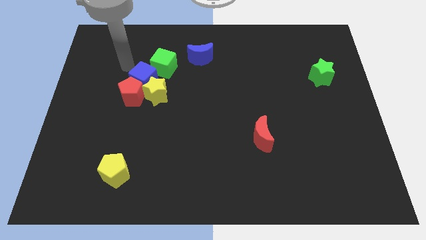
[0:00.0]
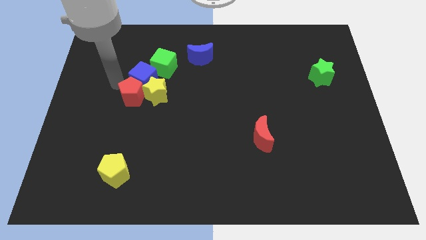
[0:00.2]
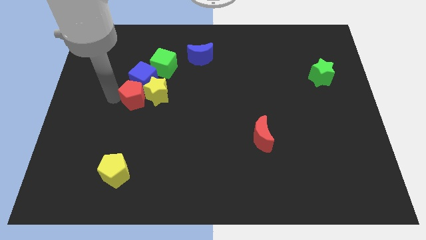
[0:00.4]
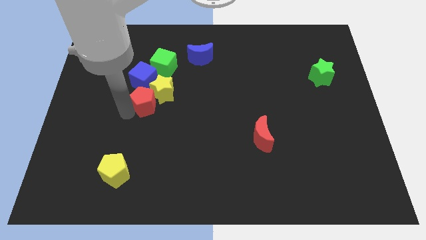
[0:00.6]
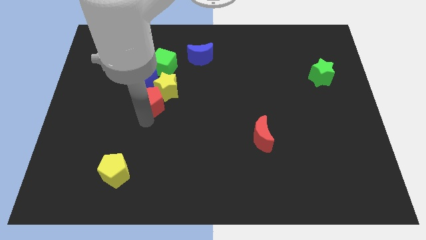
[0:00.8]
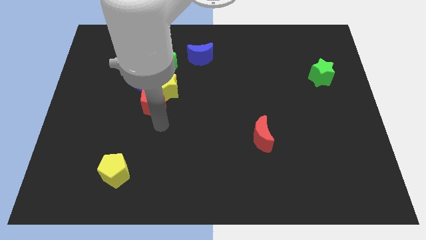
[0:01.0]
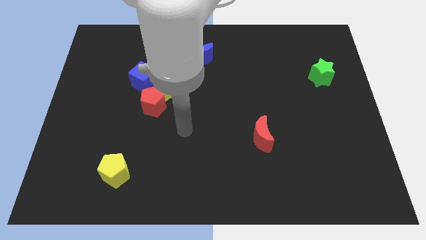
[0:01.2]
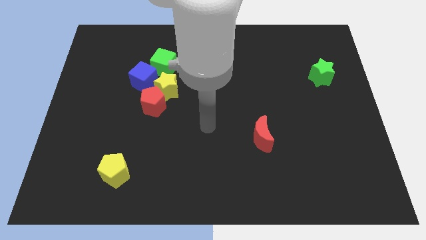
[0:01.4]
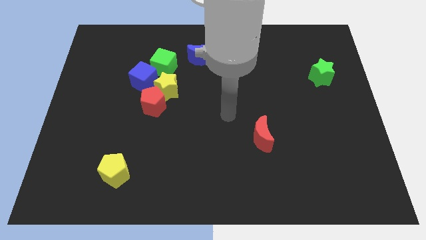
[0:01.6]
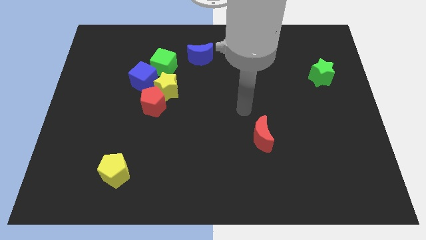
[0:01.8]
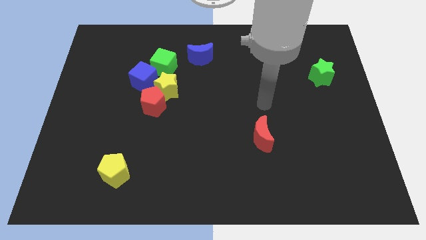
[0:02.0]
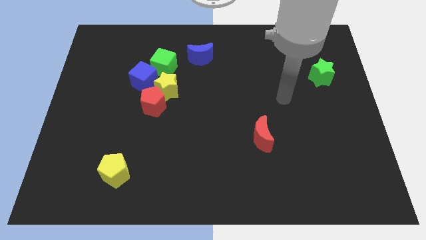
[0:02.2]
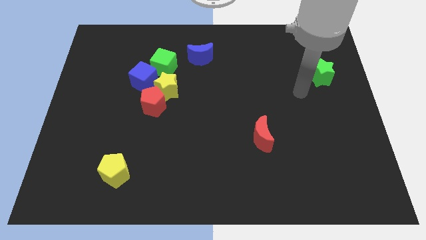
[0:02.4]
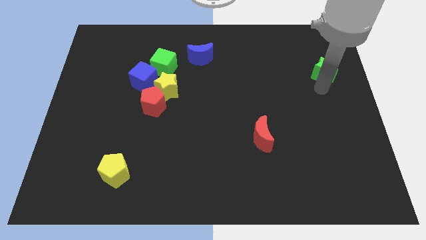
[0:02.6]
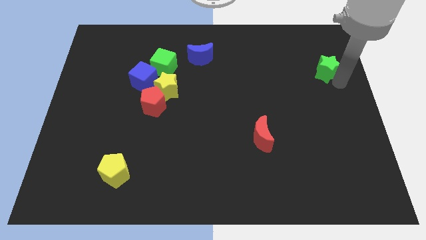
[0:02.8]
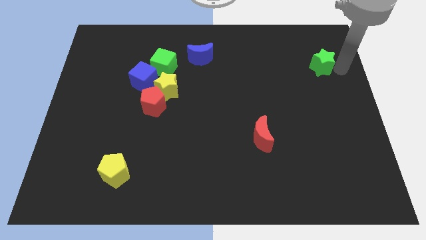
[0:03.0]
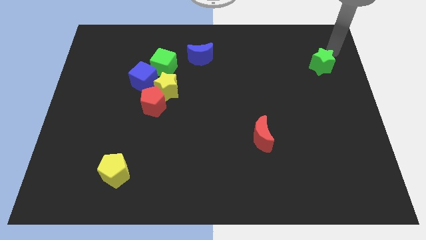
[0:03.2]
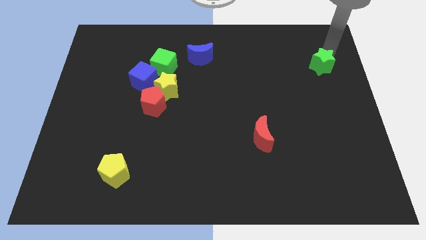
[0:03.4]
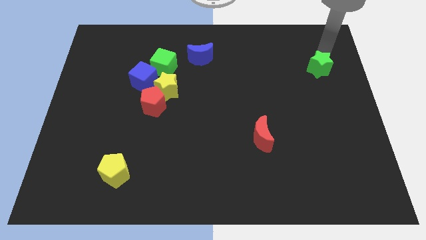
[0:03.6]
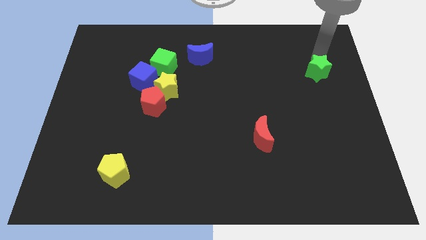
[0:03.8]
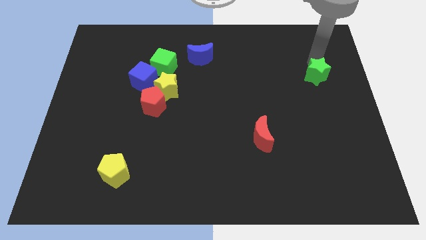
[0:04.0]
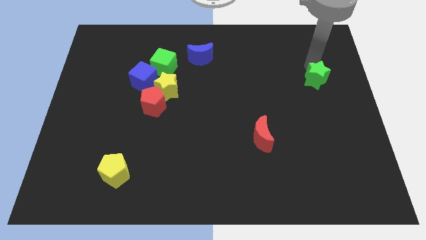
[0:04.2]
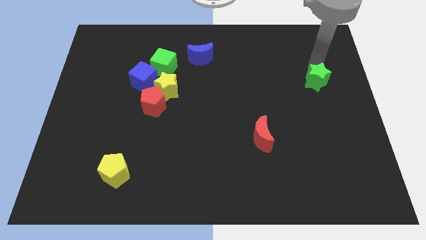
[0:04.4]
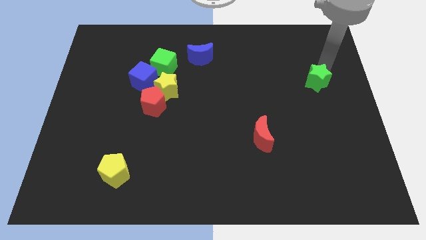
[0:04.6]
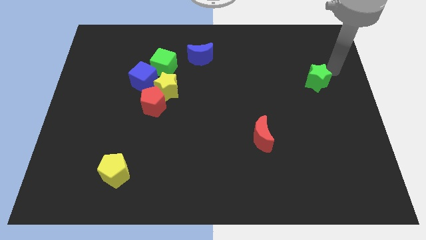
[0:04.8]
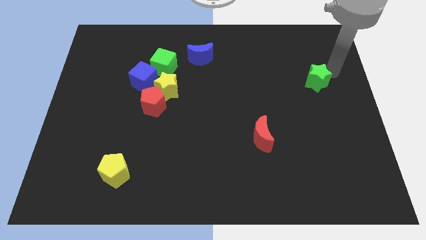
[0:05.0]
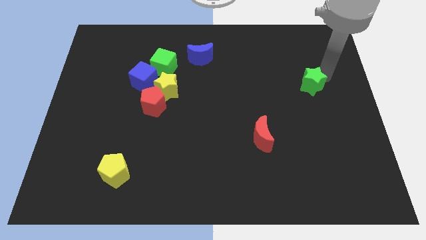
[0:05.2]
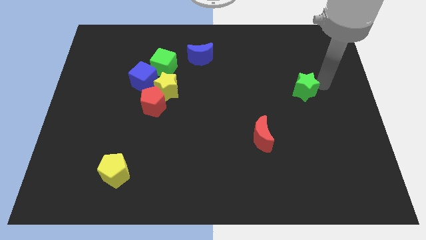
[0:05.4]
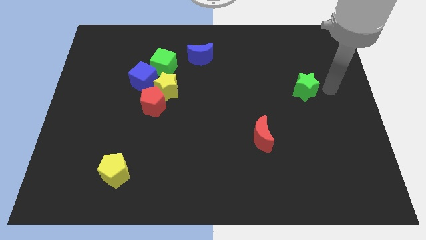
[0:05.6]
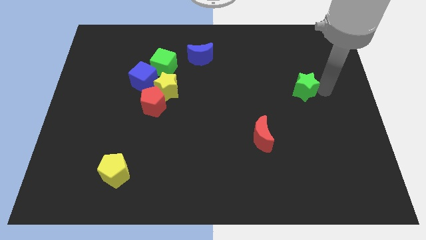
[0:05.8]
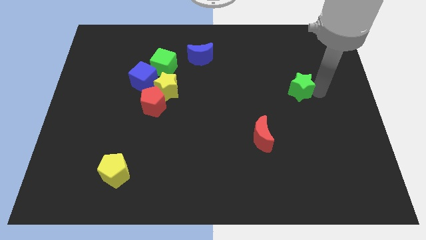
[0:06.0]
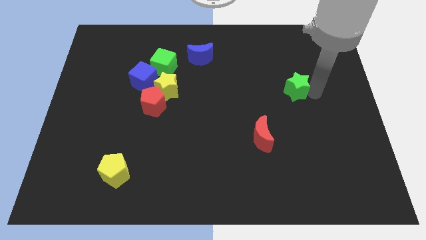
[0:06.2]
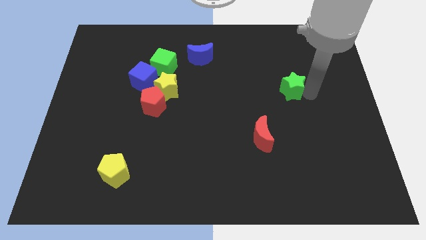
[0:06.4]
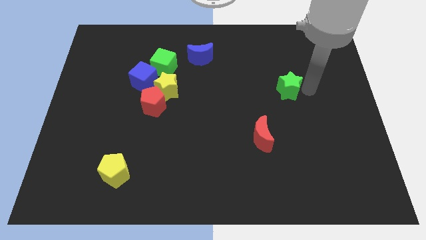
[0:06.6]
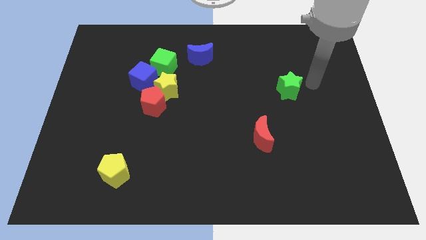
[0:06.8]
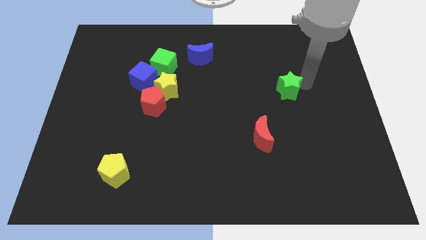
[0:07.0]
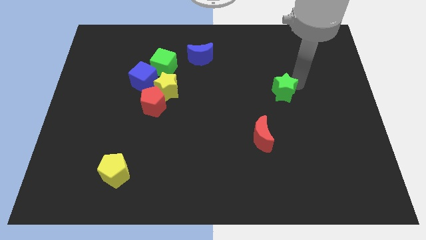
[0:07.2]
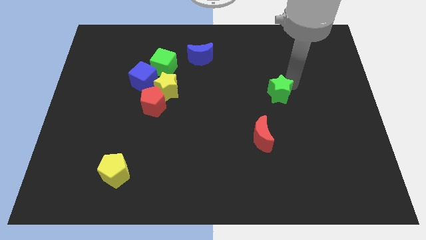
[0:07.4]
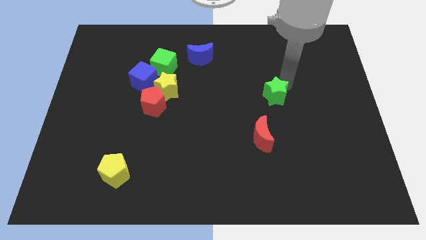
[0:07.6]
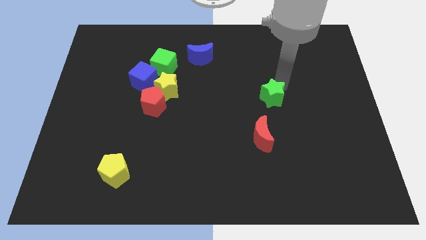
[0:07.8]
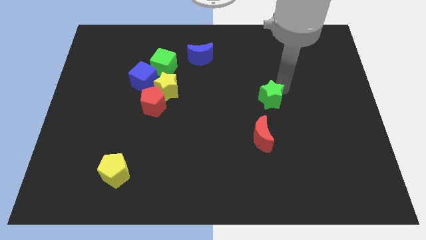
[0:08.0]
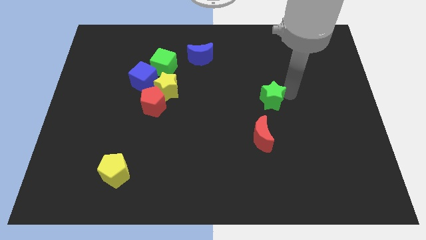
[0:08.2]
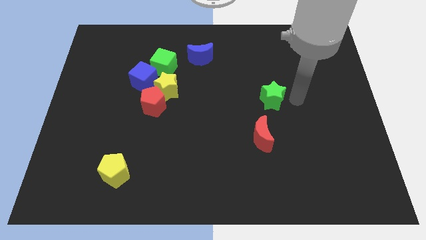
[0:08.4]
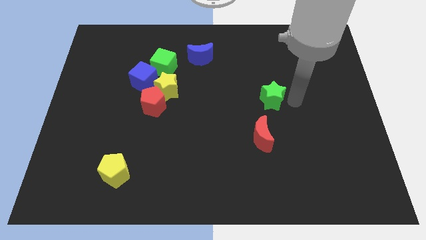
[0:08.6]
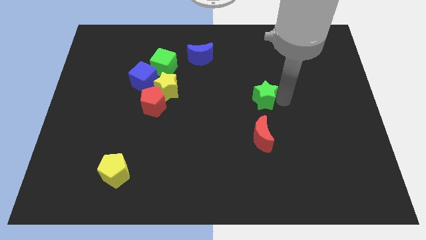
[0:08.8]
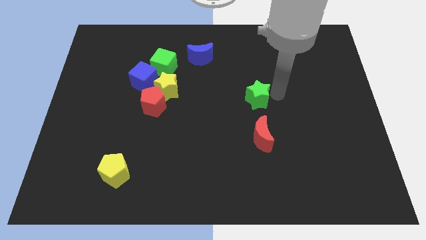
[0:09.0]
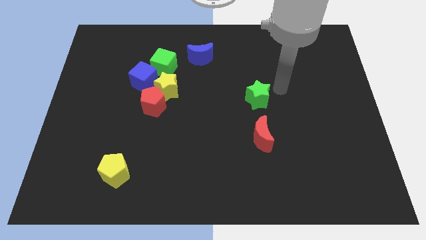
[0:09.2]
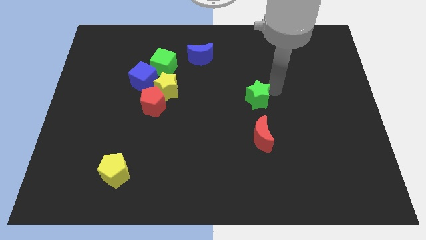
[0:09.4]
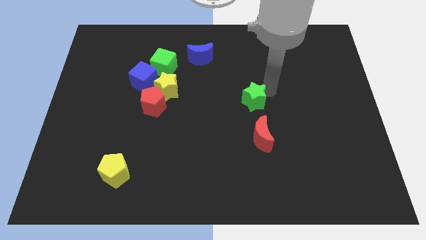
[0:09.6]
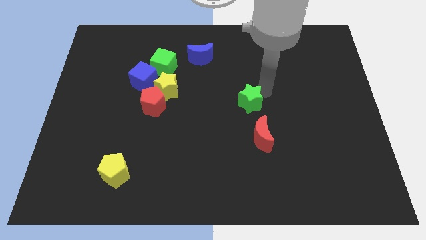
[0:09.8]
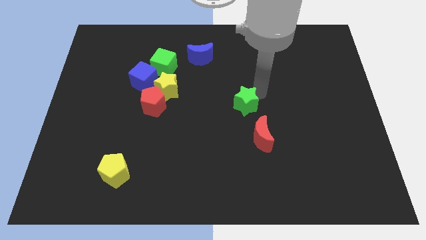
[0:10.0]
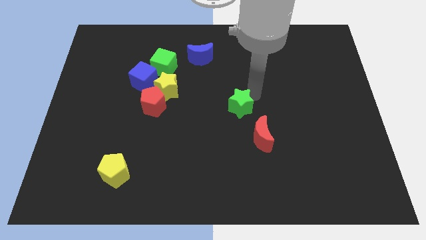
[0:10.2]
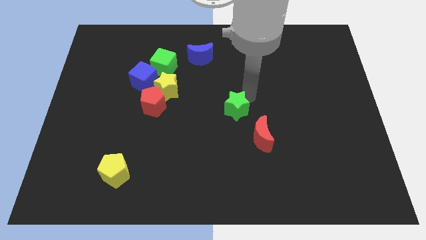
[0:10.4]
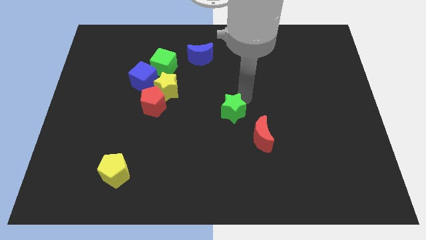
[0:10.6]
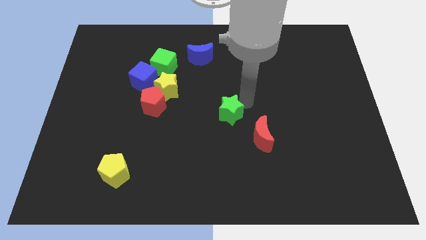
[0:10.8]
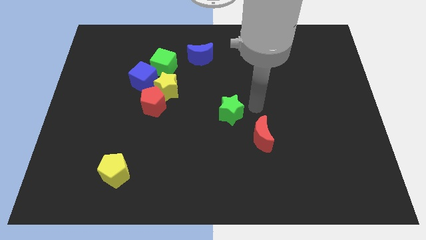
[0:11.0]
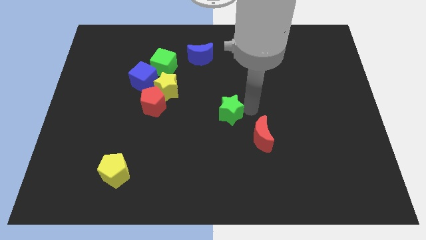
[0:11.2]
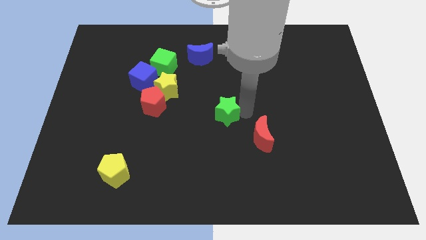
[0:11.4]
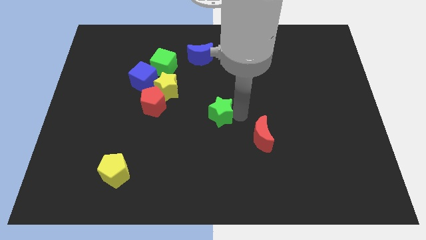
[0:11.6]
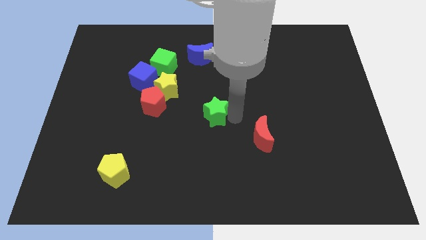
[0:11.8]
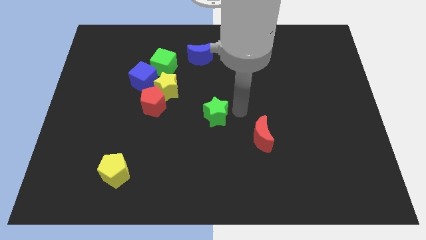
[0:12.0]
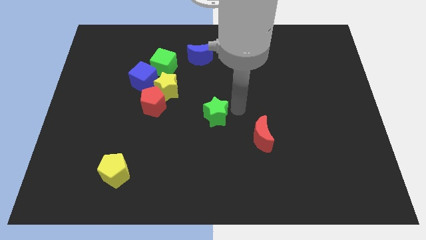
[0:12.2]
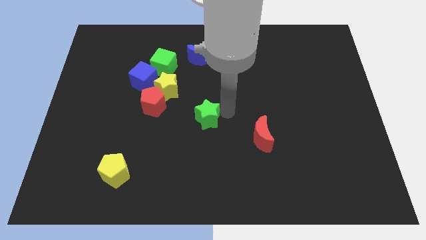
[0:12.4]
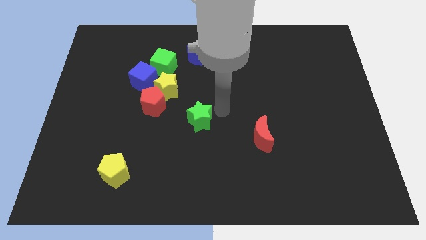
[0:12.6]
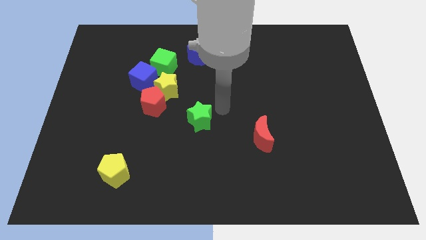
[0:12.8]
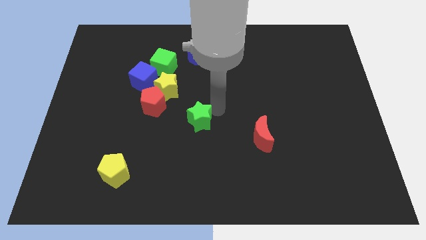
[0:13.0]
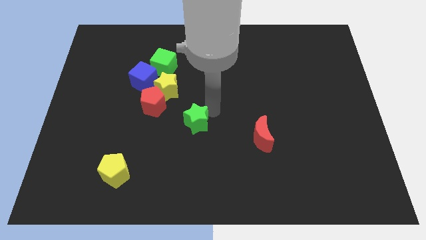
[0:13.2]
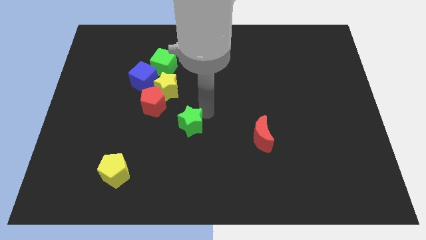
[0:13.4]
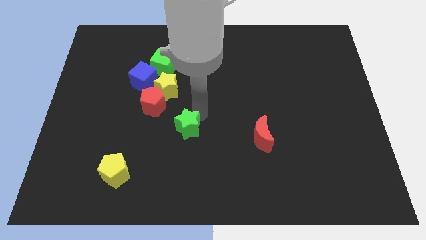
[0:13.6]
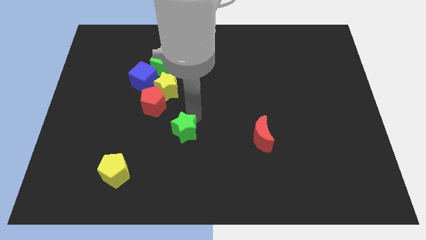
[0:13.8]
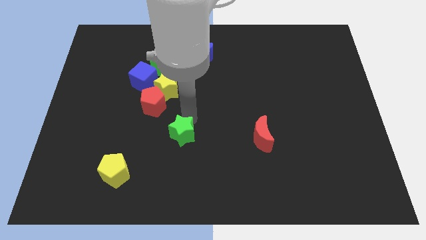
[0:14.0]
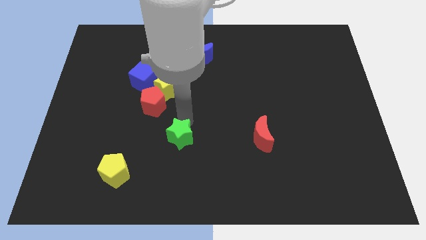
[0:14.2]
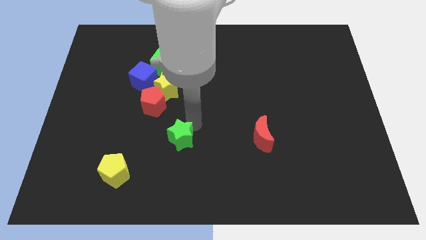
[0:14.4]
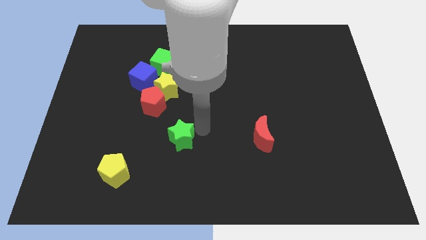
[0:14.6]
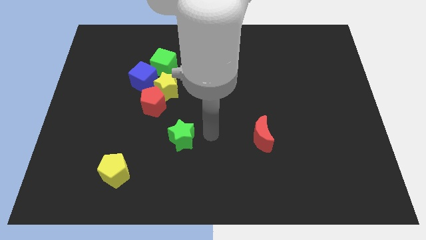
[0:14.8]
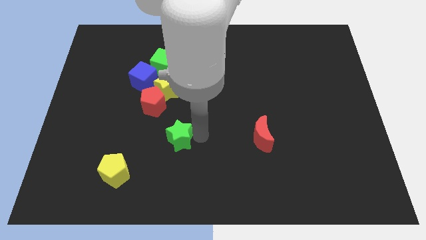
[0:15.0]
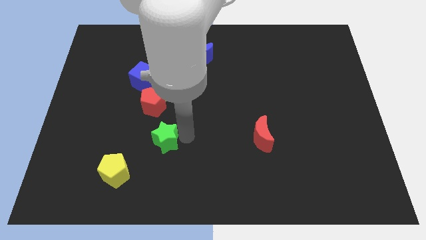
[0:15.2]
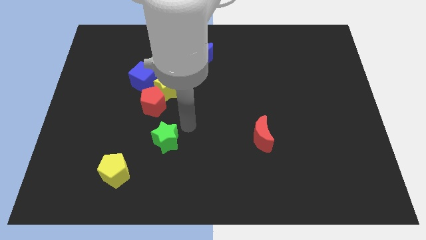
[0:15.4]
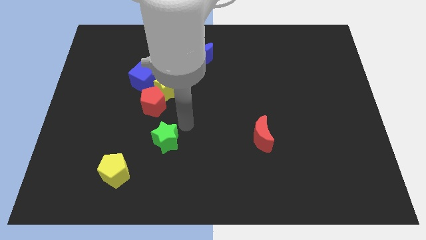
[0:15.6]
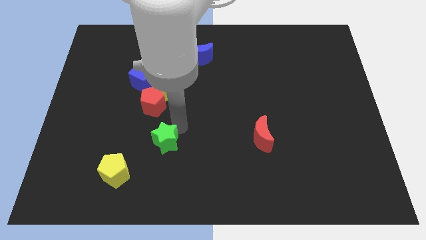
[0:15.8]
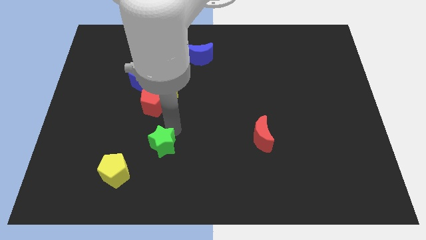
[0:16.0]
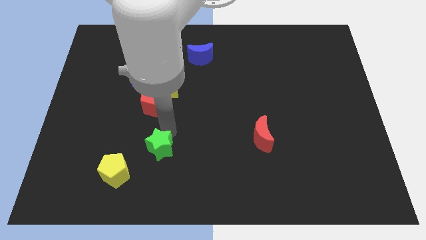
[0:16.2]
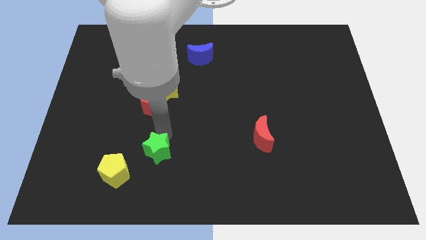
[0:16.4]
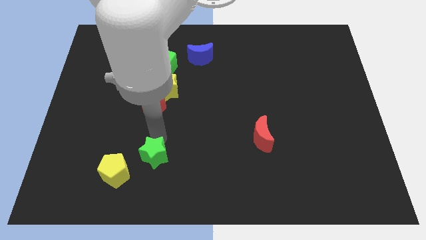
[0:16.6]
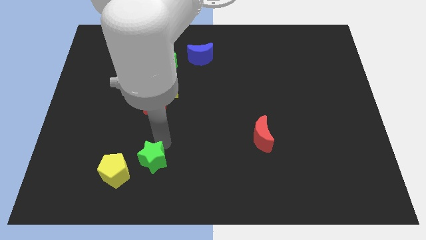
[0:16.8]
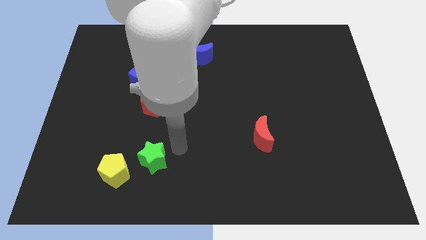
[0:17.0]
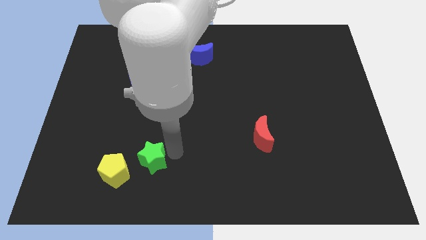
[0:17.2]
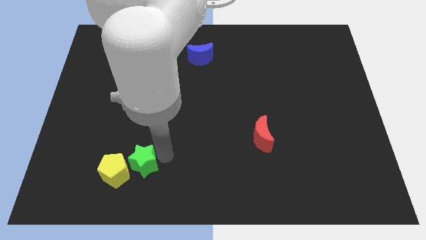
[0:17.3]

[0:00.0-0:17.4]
put the green star to the yellow pentagon
